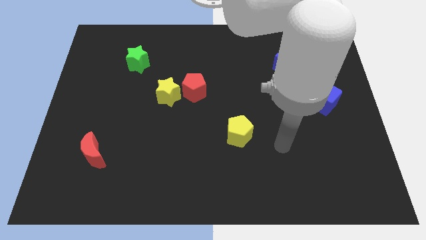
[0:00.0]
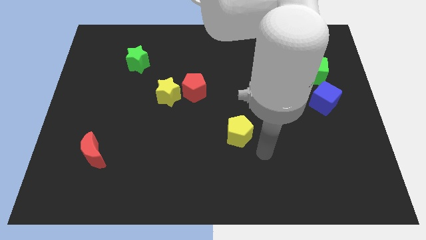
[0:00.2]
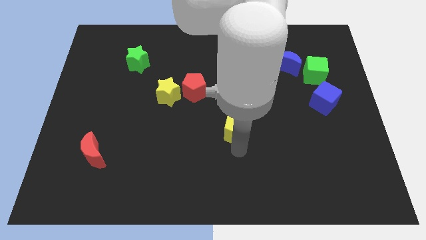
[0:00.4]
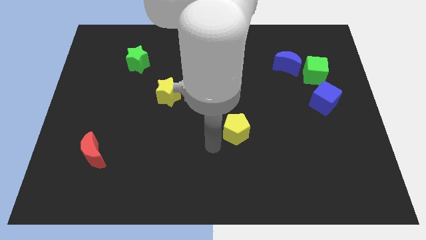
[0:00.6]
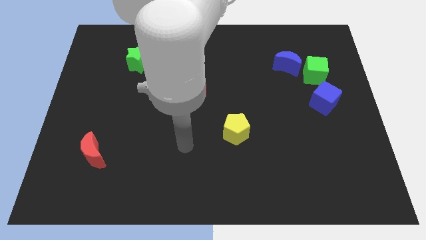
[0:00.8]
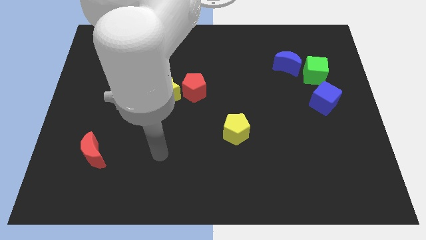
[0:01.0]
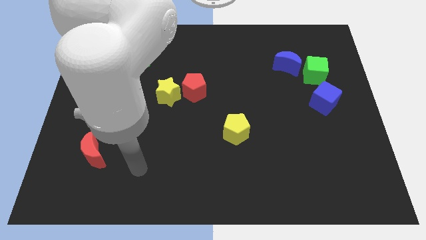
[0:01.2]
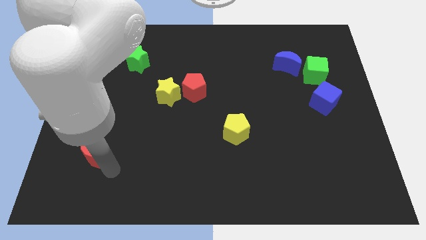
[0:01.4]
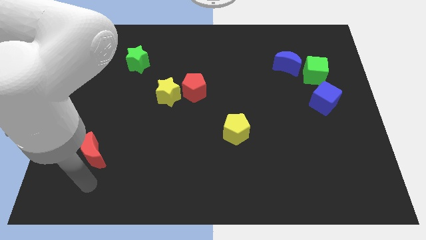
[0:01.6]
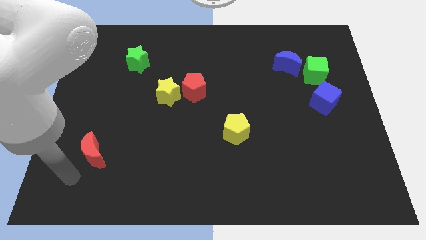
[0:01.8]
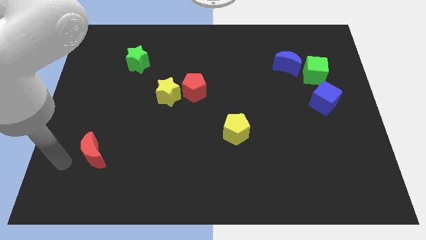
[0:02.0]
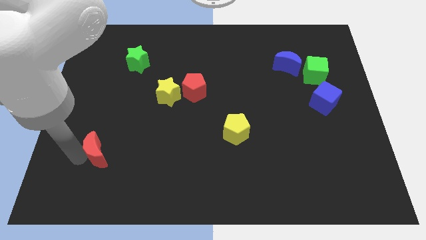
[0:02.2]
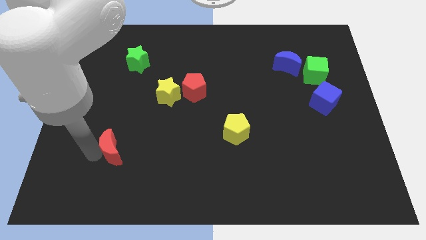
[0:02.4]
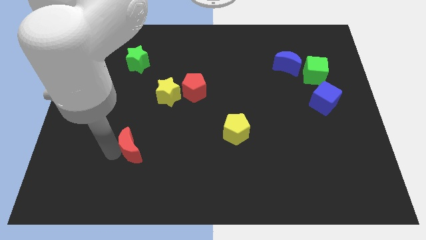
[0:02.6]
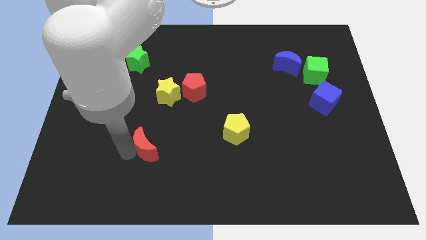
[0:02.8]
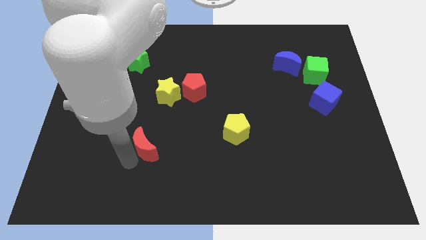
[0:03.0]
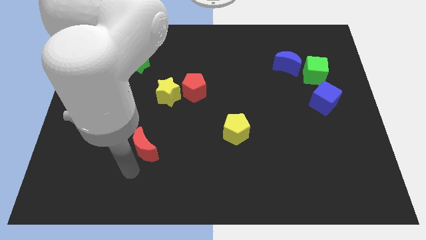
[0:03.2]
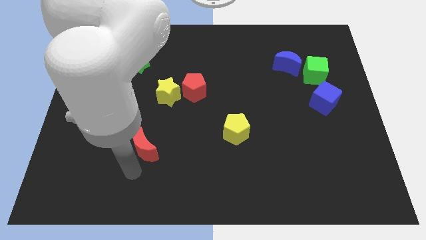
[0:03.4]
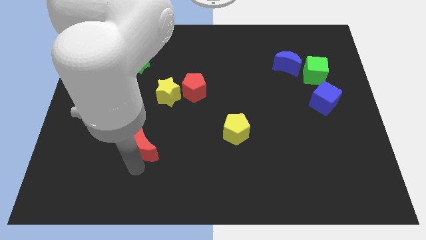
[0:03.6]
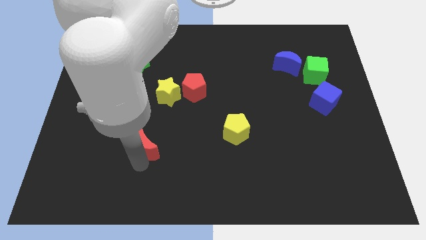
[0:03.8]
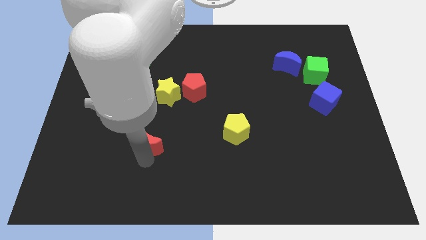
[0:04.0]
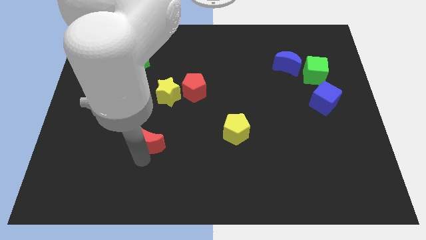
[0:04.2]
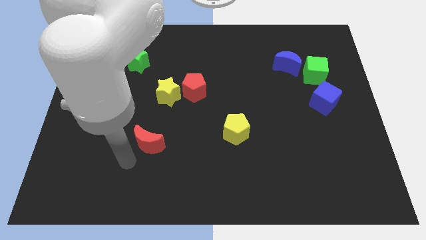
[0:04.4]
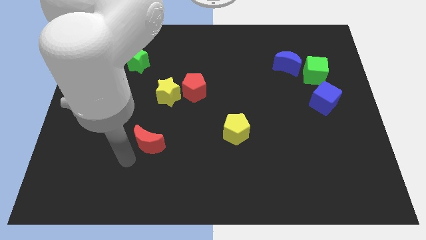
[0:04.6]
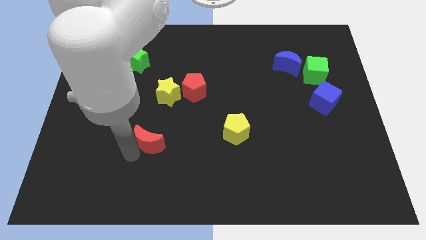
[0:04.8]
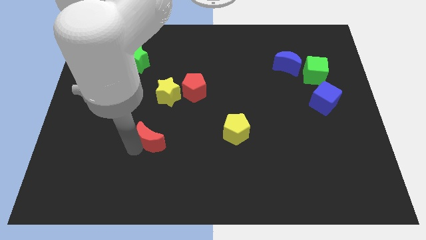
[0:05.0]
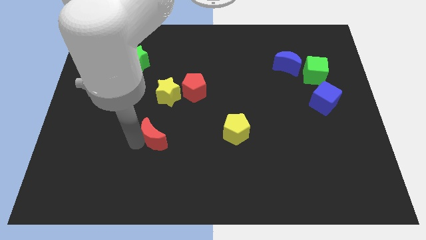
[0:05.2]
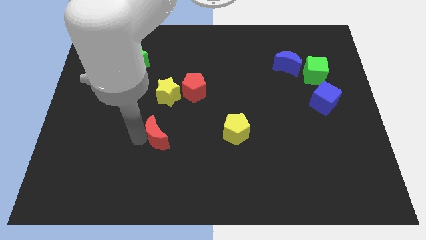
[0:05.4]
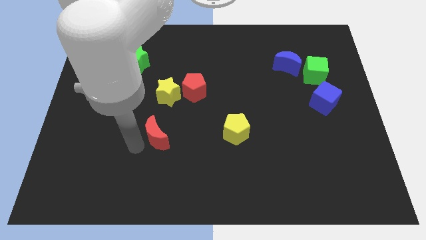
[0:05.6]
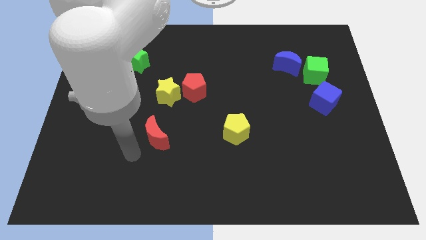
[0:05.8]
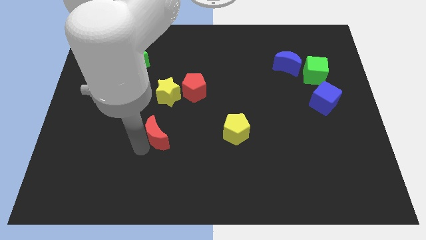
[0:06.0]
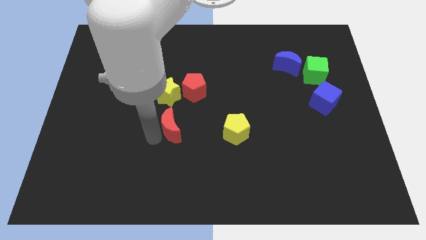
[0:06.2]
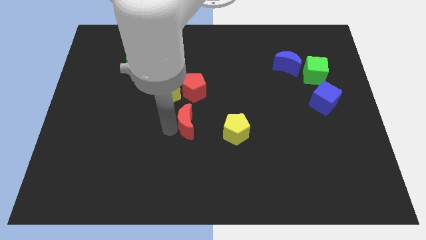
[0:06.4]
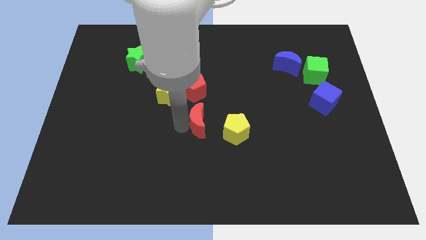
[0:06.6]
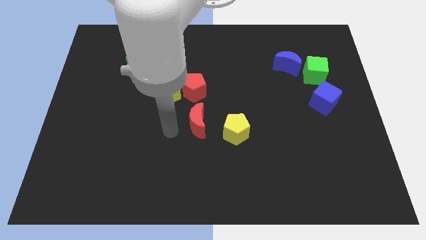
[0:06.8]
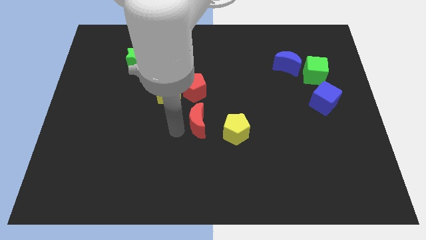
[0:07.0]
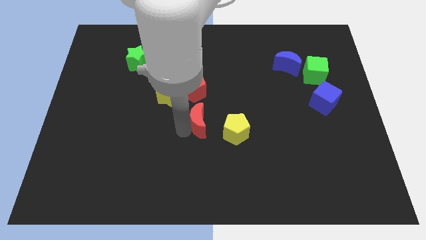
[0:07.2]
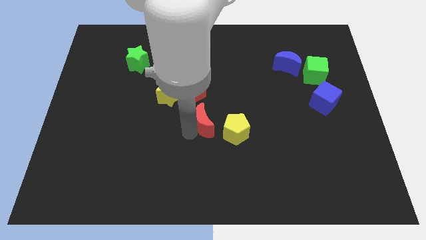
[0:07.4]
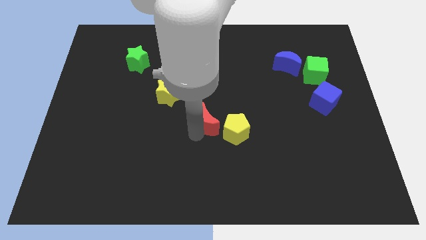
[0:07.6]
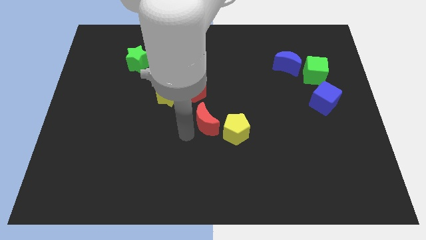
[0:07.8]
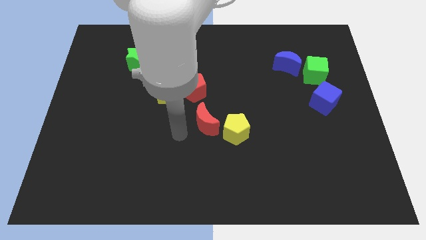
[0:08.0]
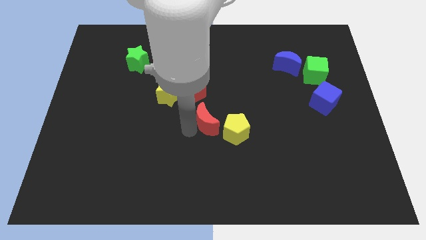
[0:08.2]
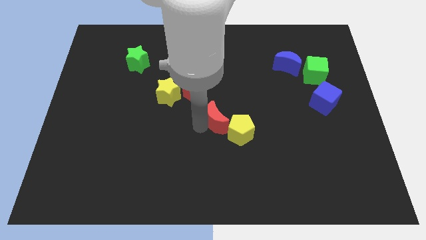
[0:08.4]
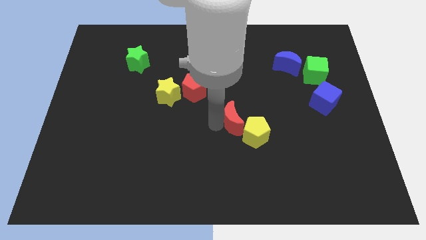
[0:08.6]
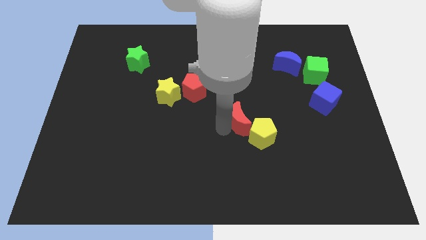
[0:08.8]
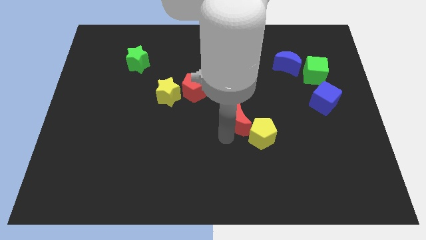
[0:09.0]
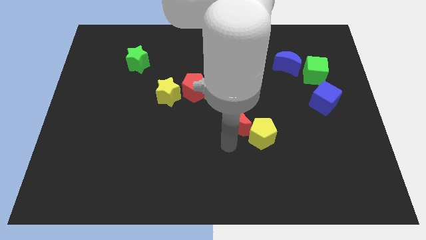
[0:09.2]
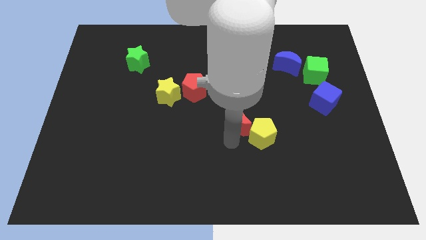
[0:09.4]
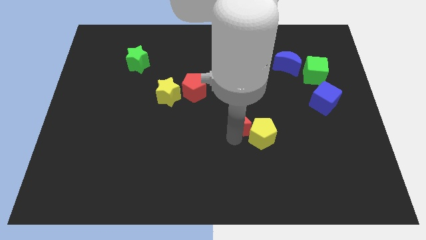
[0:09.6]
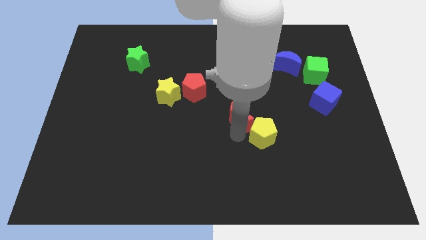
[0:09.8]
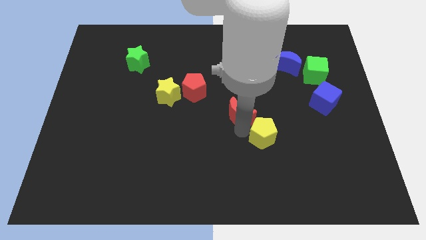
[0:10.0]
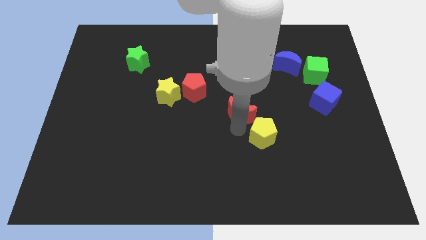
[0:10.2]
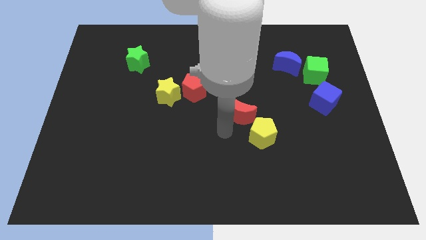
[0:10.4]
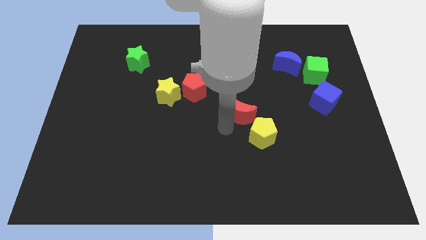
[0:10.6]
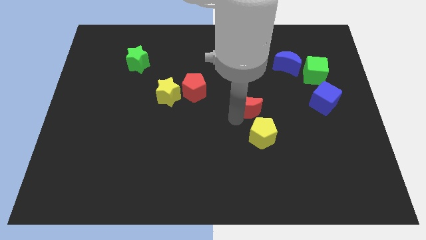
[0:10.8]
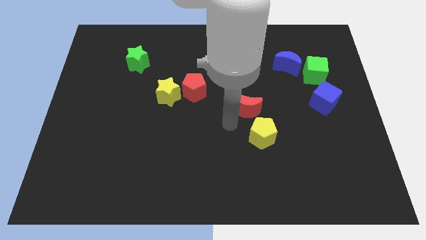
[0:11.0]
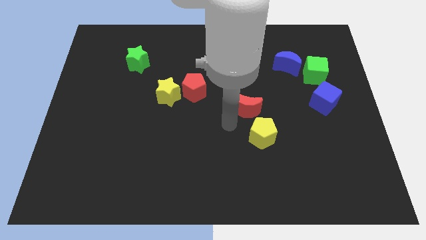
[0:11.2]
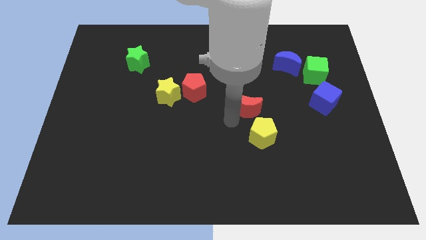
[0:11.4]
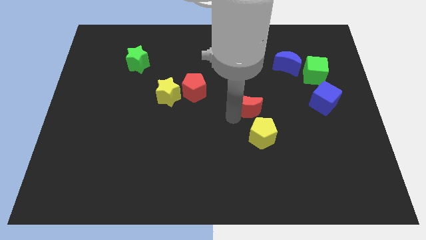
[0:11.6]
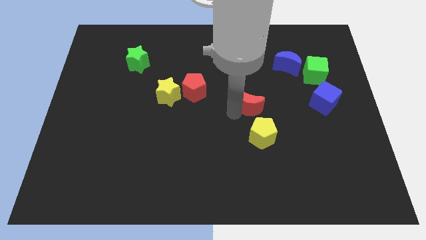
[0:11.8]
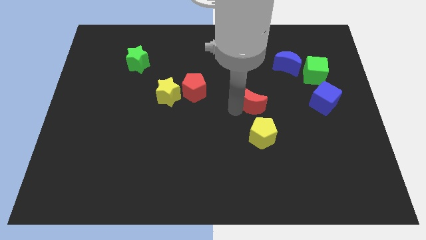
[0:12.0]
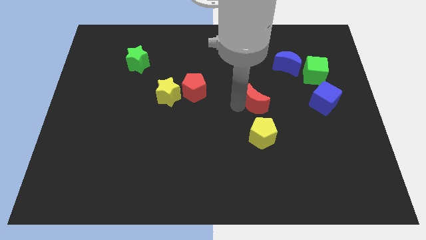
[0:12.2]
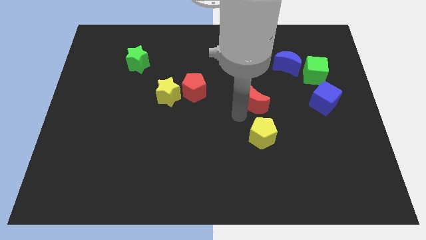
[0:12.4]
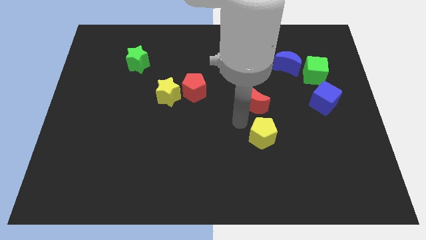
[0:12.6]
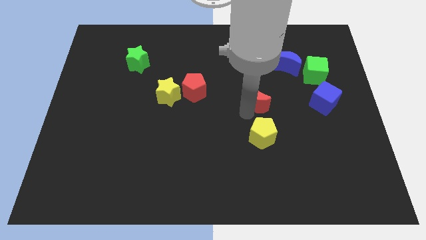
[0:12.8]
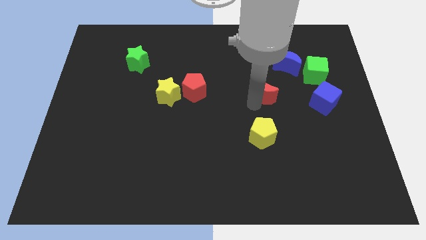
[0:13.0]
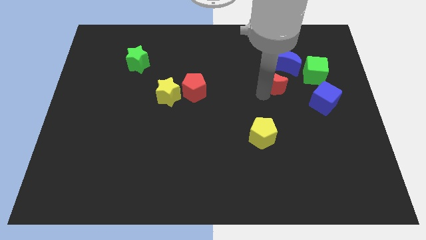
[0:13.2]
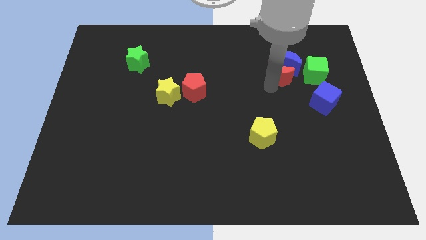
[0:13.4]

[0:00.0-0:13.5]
move the red moon next to the blue moon

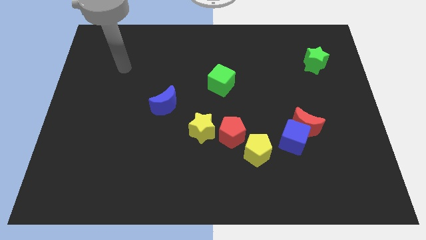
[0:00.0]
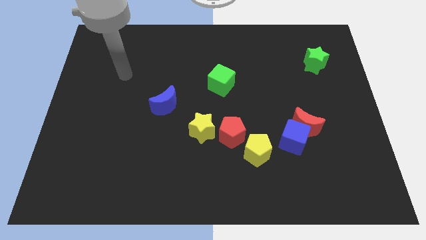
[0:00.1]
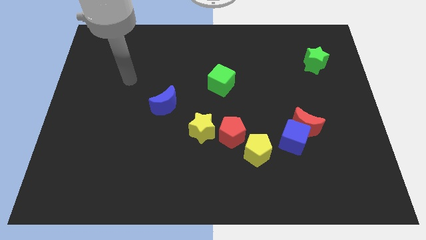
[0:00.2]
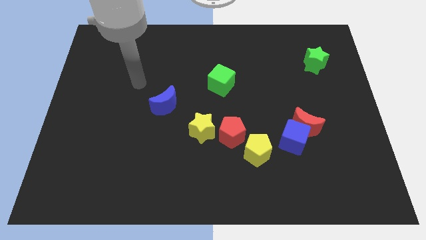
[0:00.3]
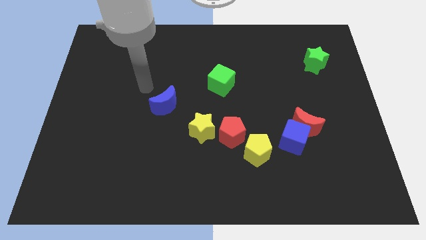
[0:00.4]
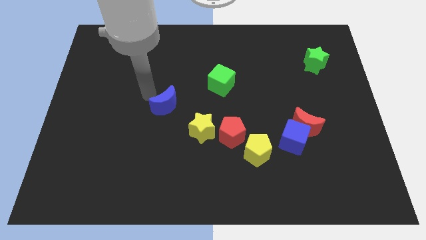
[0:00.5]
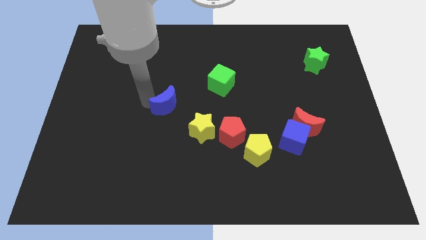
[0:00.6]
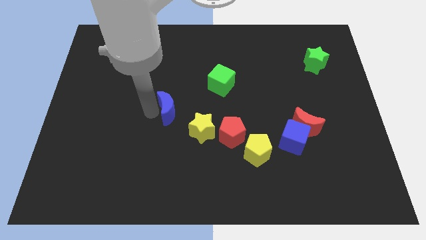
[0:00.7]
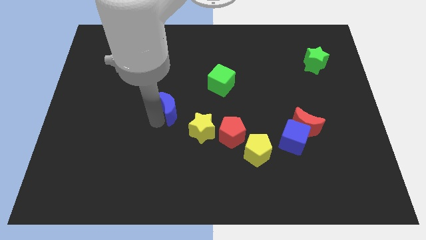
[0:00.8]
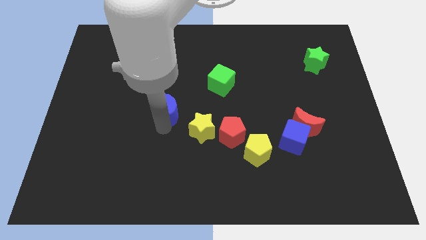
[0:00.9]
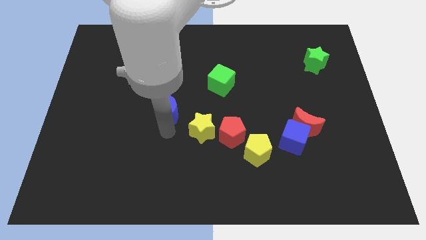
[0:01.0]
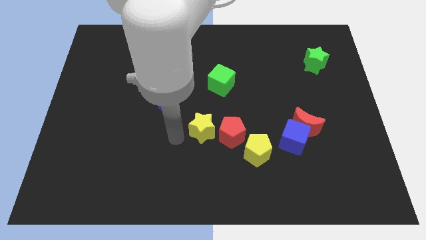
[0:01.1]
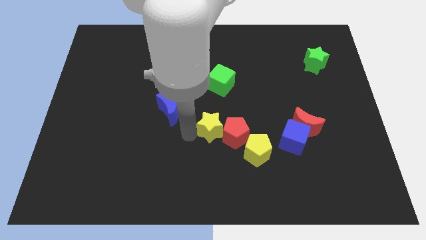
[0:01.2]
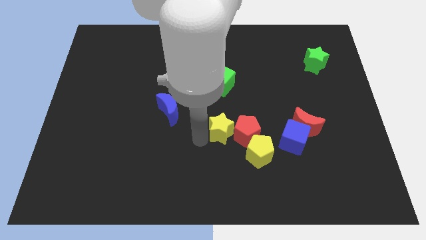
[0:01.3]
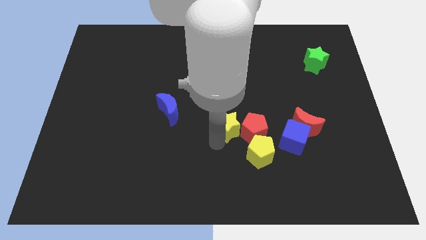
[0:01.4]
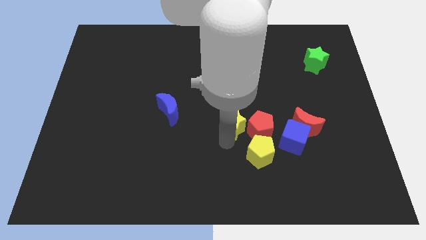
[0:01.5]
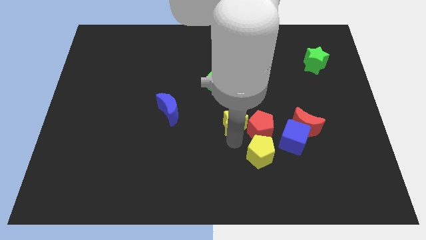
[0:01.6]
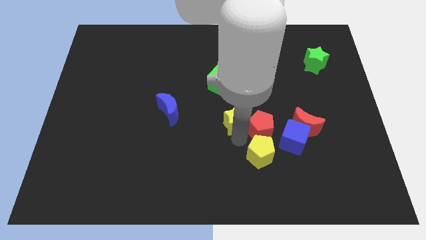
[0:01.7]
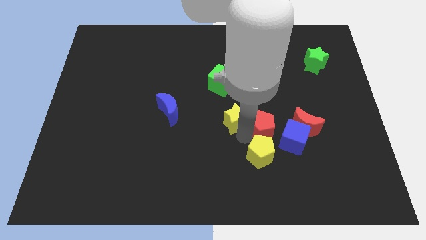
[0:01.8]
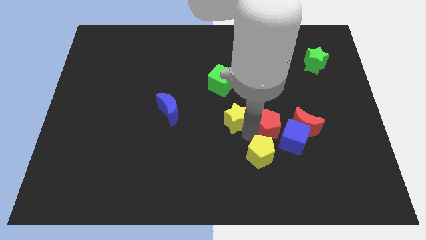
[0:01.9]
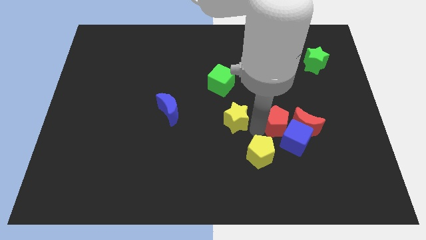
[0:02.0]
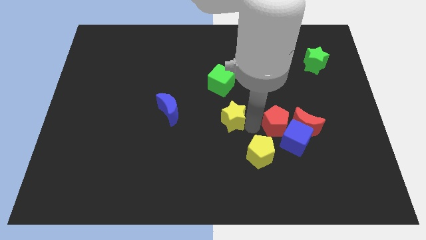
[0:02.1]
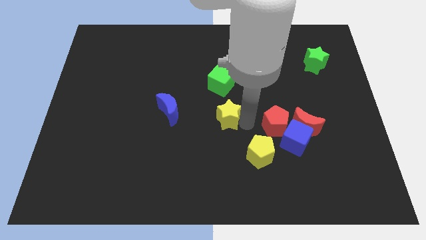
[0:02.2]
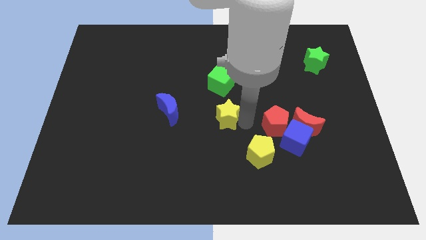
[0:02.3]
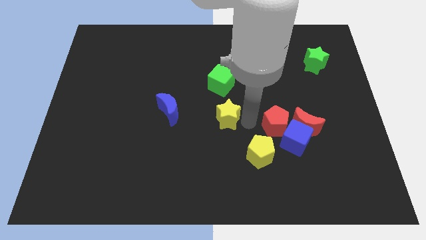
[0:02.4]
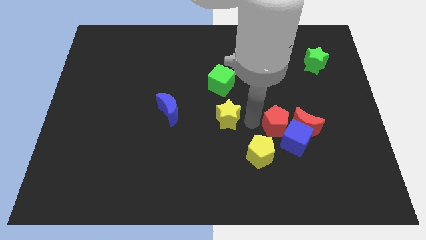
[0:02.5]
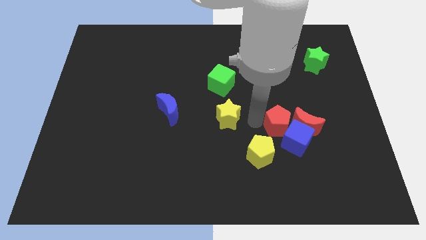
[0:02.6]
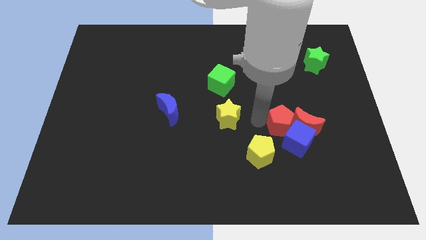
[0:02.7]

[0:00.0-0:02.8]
move the red pentagon close to the red moon
